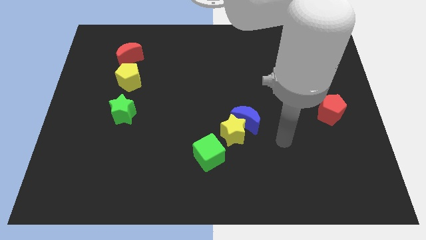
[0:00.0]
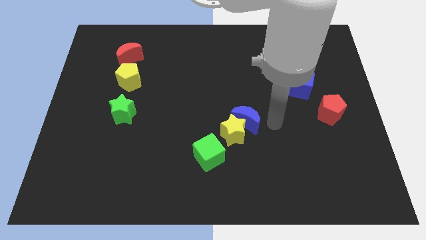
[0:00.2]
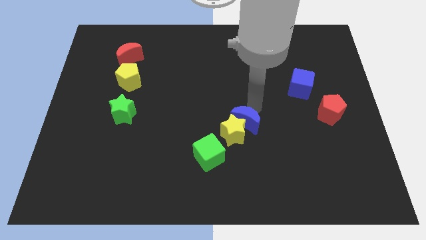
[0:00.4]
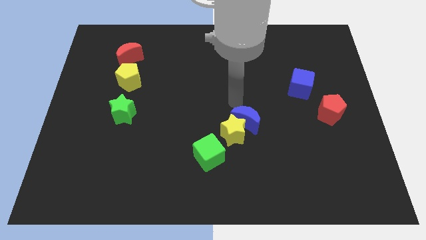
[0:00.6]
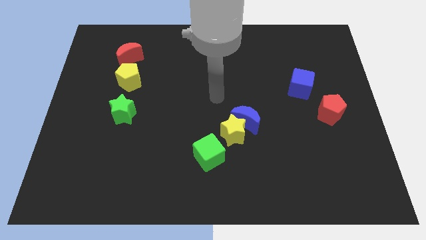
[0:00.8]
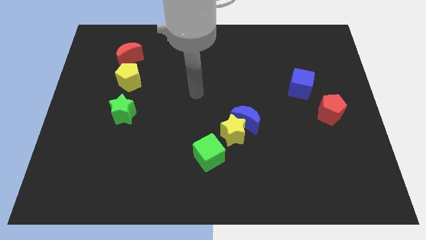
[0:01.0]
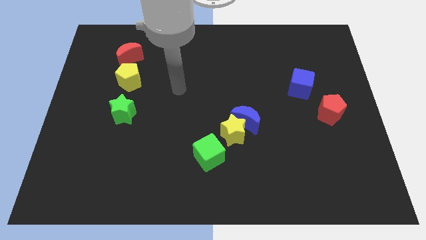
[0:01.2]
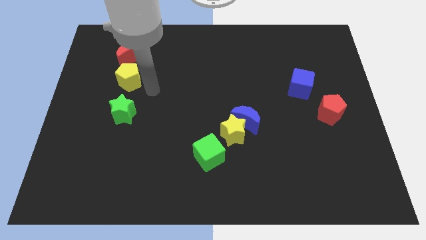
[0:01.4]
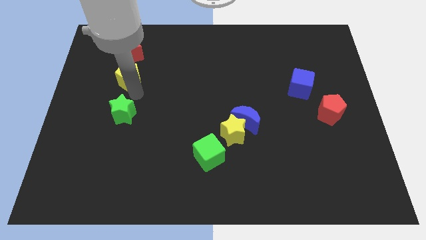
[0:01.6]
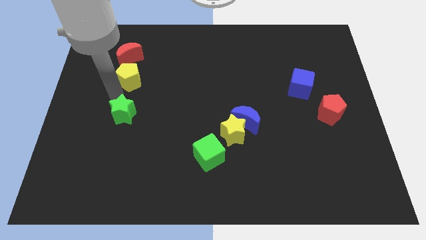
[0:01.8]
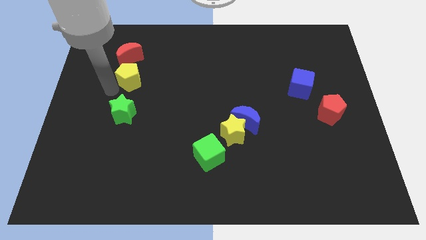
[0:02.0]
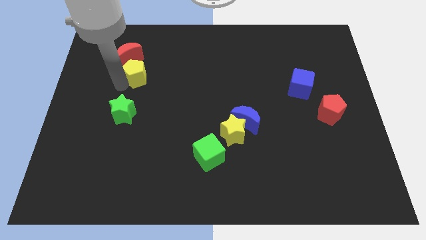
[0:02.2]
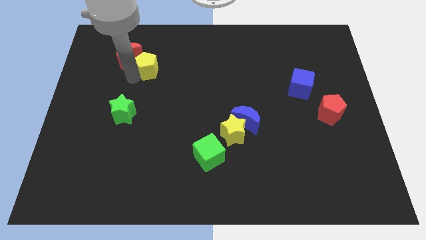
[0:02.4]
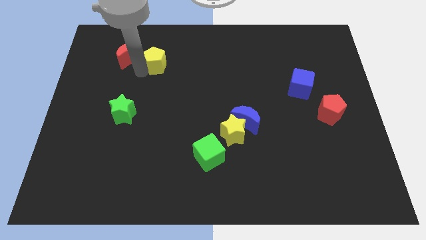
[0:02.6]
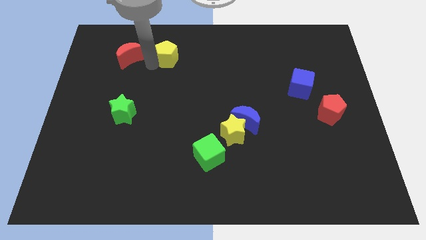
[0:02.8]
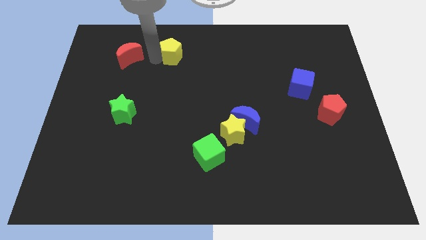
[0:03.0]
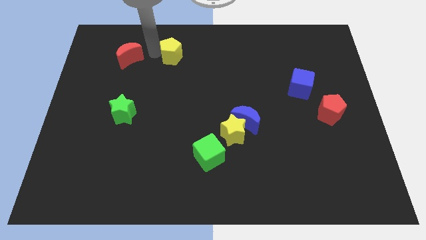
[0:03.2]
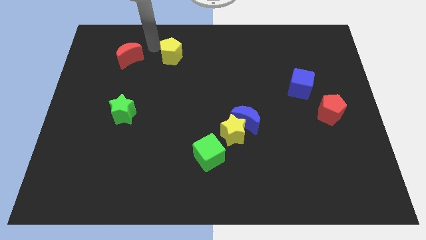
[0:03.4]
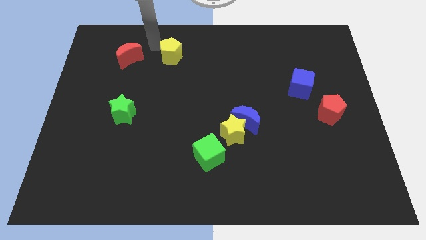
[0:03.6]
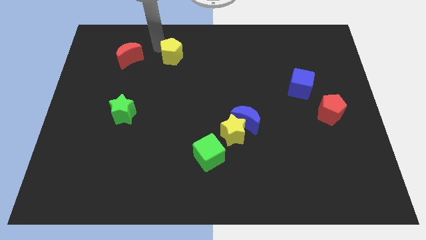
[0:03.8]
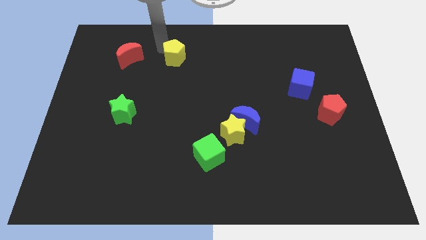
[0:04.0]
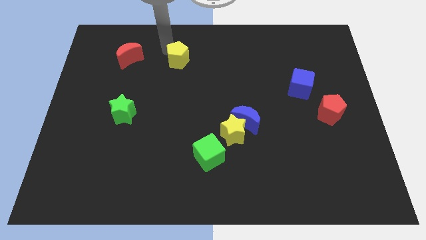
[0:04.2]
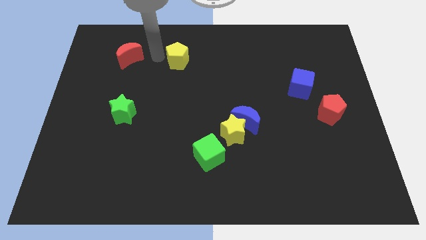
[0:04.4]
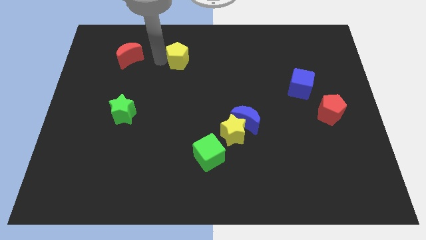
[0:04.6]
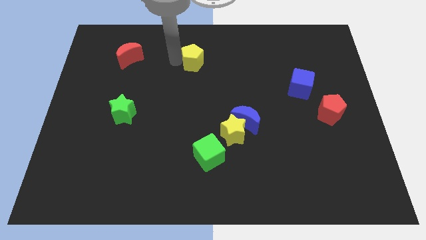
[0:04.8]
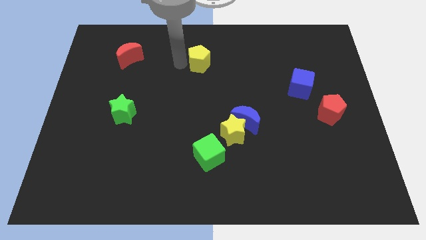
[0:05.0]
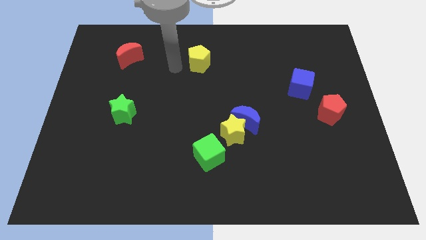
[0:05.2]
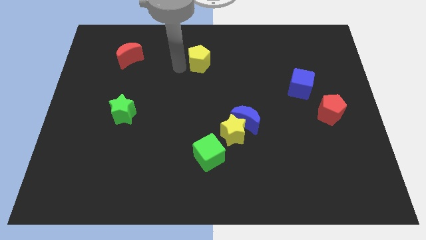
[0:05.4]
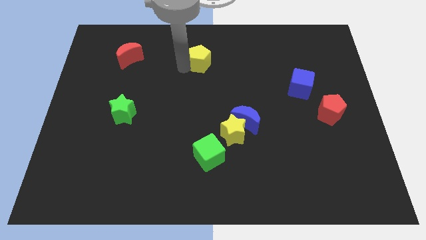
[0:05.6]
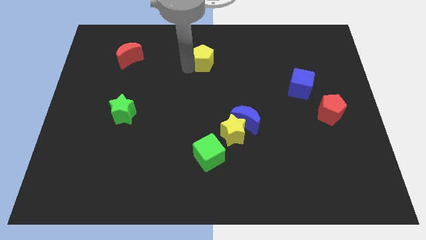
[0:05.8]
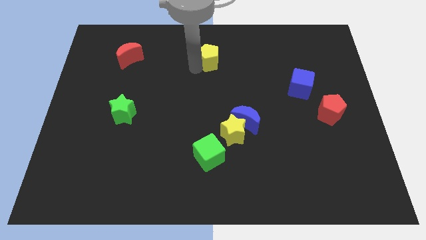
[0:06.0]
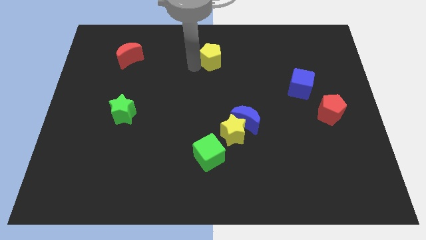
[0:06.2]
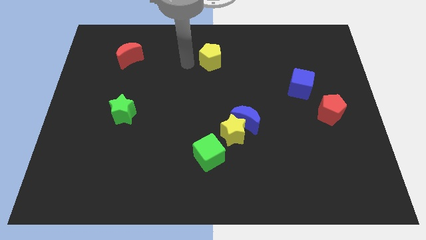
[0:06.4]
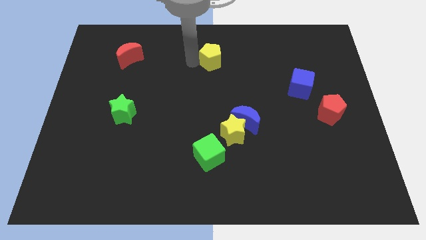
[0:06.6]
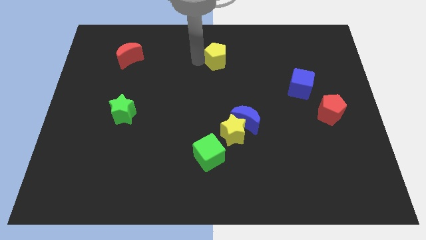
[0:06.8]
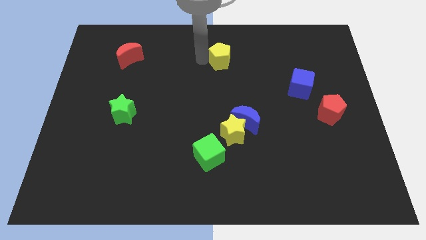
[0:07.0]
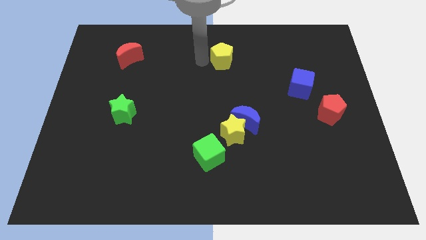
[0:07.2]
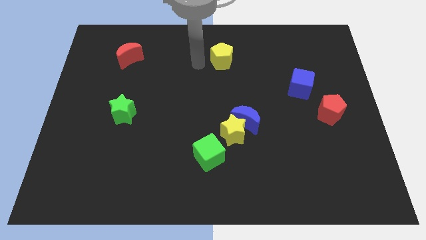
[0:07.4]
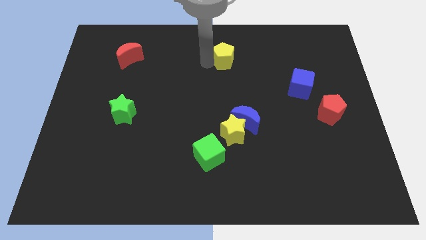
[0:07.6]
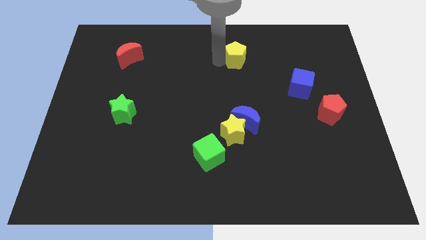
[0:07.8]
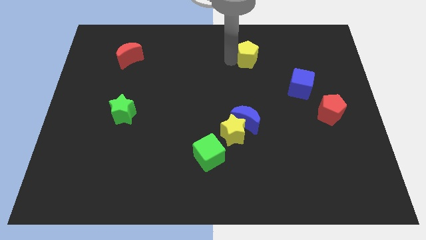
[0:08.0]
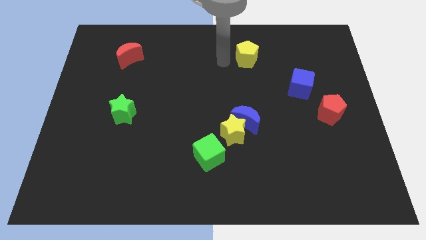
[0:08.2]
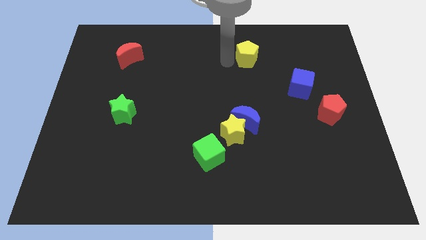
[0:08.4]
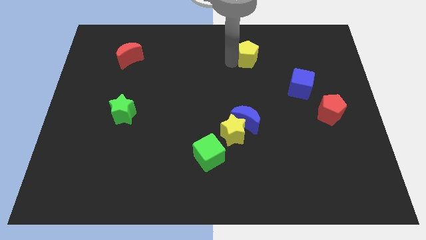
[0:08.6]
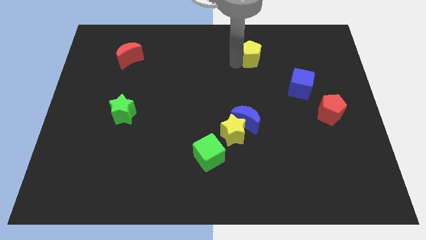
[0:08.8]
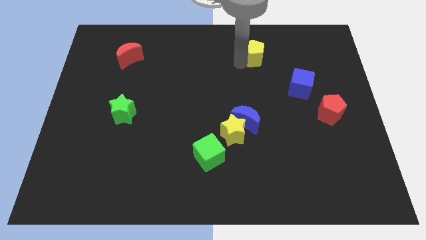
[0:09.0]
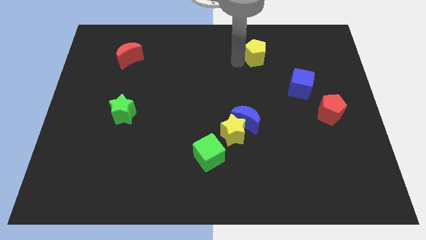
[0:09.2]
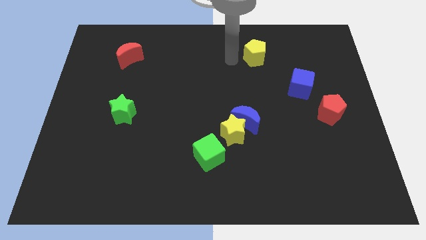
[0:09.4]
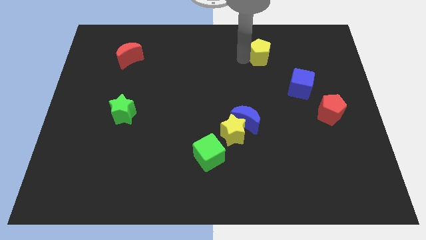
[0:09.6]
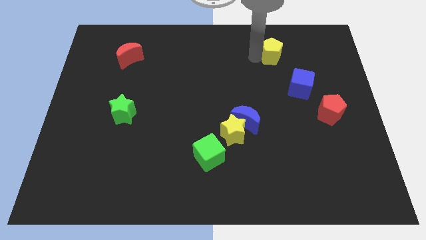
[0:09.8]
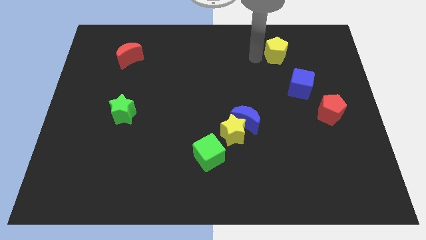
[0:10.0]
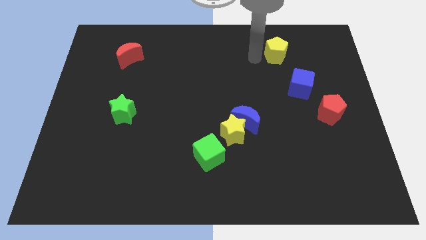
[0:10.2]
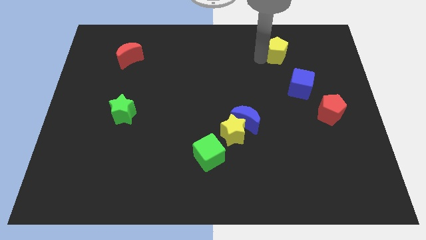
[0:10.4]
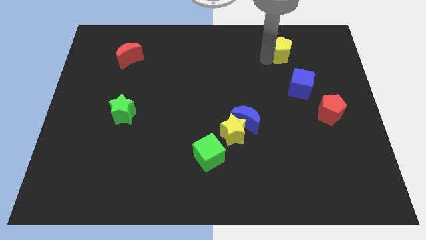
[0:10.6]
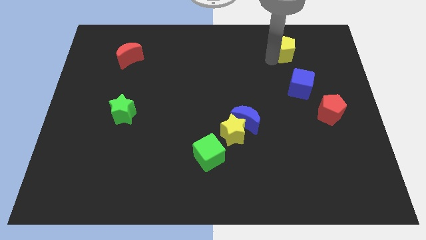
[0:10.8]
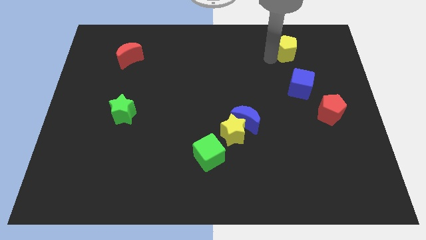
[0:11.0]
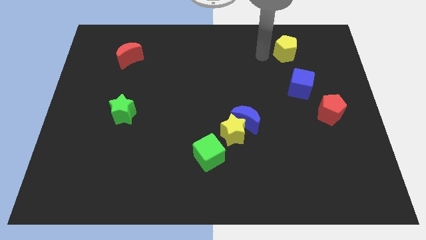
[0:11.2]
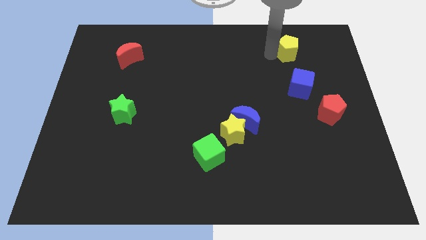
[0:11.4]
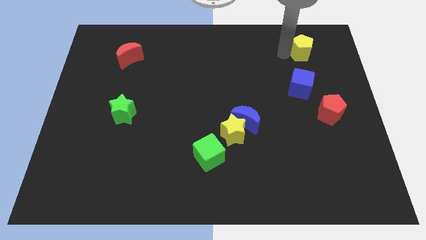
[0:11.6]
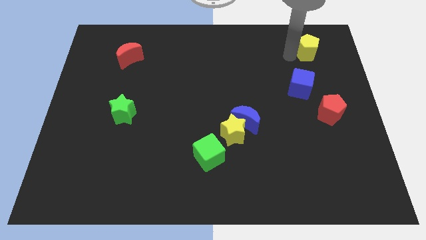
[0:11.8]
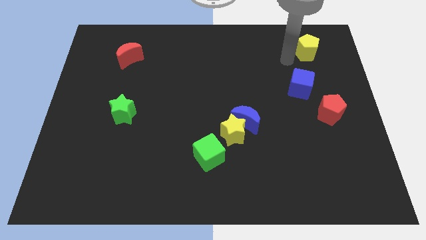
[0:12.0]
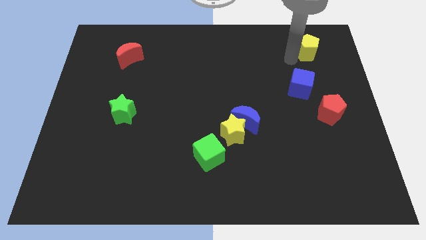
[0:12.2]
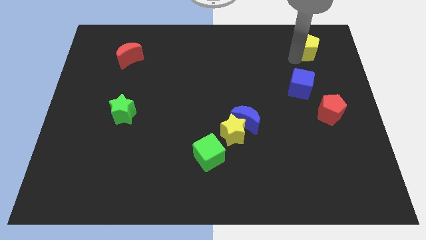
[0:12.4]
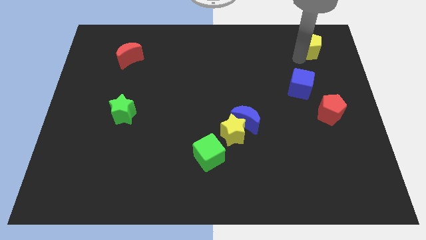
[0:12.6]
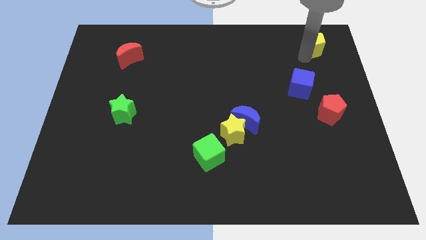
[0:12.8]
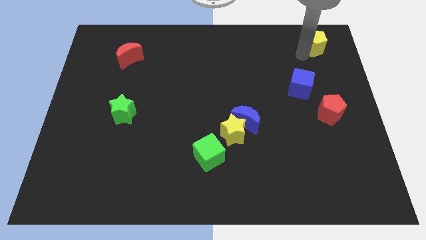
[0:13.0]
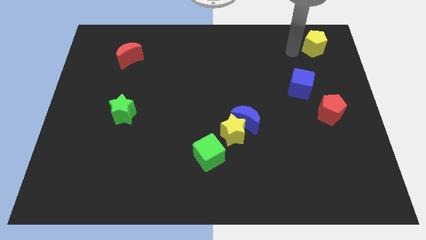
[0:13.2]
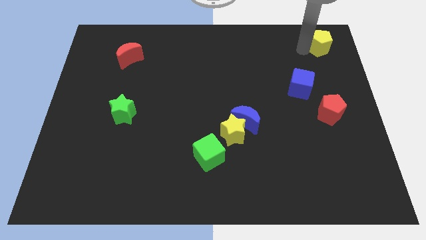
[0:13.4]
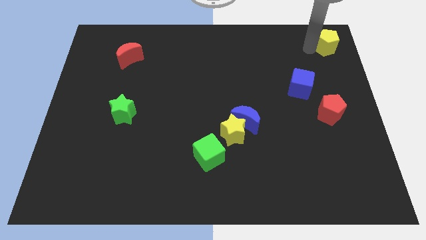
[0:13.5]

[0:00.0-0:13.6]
put the yellow pentagon to the top right corner
